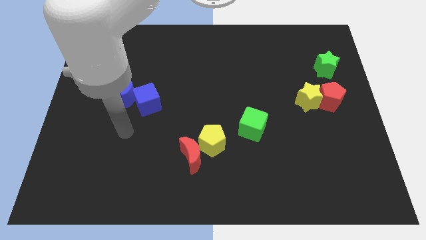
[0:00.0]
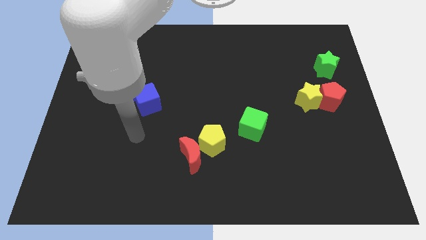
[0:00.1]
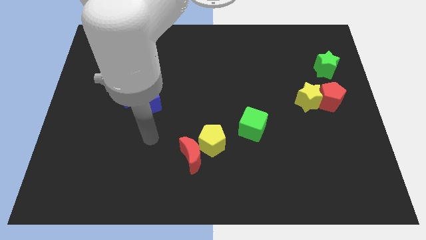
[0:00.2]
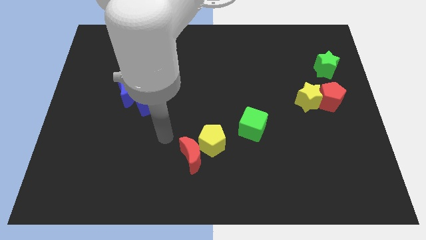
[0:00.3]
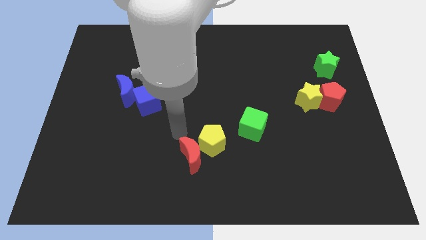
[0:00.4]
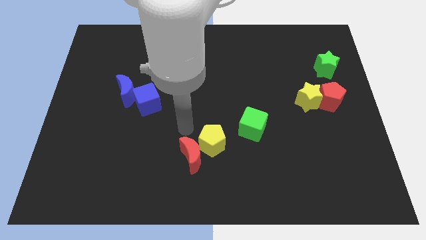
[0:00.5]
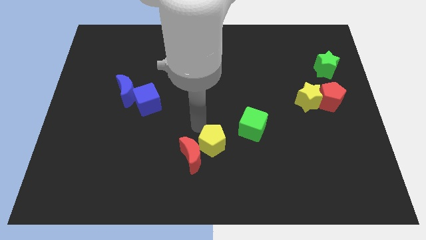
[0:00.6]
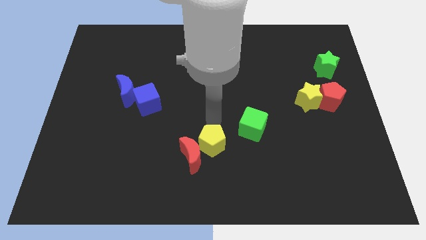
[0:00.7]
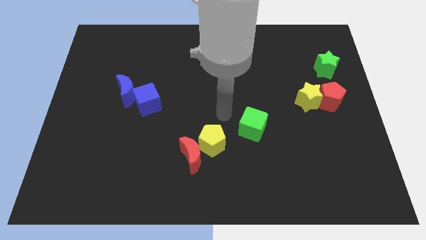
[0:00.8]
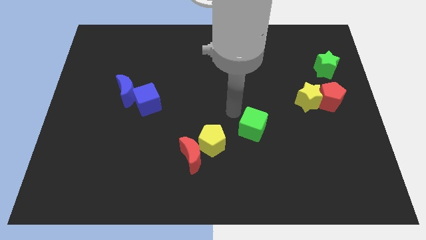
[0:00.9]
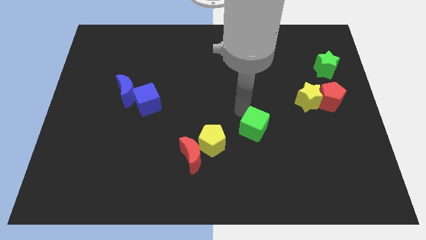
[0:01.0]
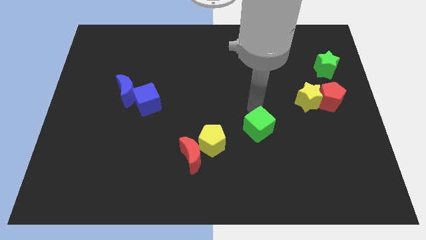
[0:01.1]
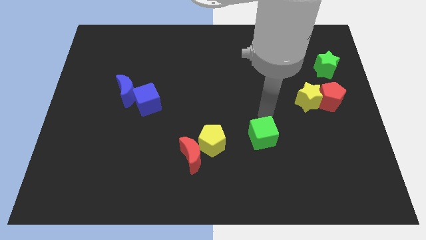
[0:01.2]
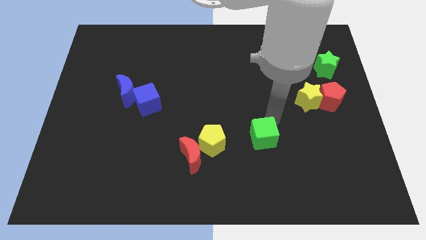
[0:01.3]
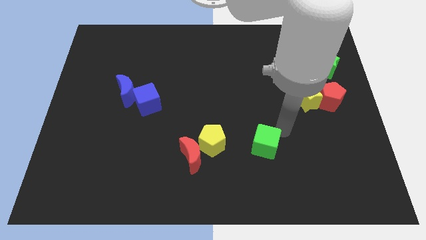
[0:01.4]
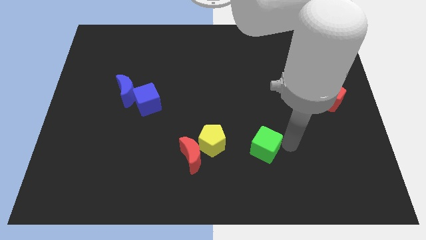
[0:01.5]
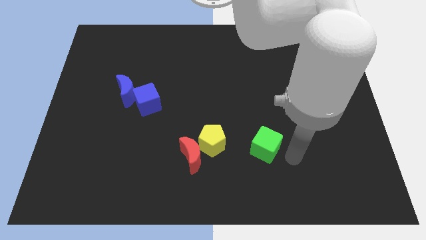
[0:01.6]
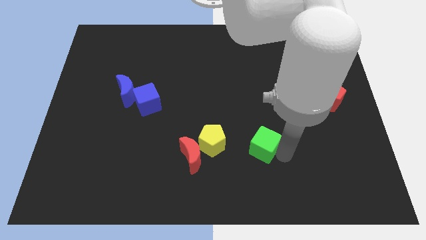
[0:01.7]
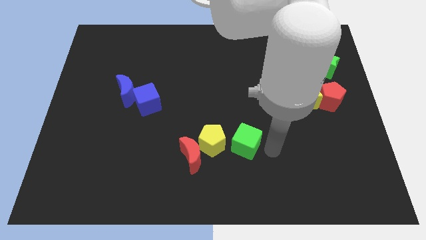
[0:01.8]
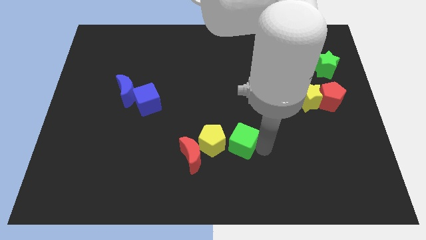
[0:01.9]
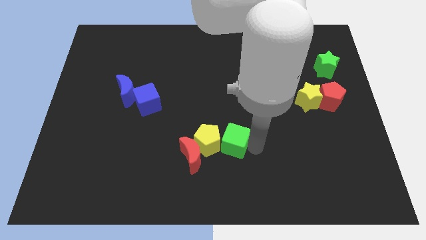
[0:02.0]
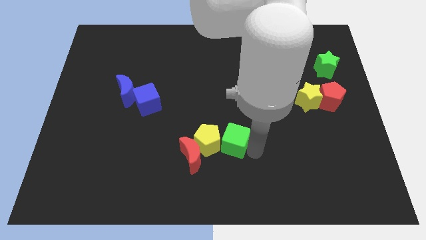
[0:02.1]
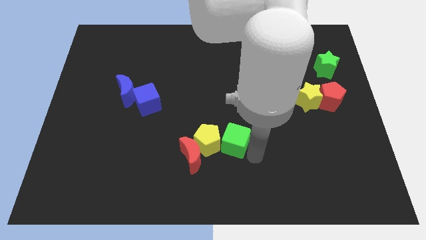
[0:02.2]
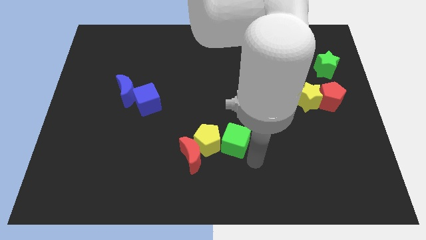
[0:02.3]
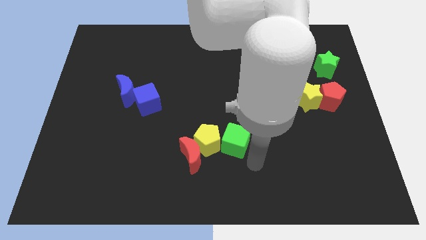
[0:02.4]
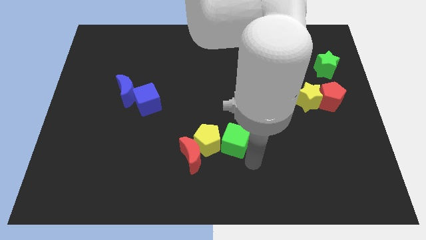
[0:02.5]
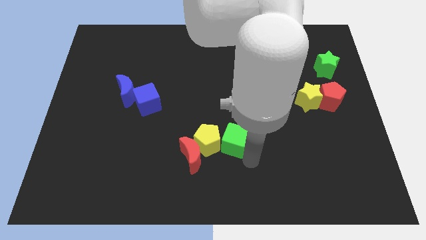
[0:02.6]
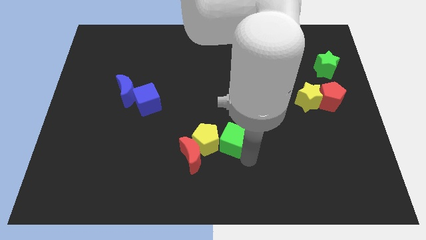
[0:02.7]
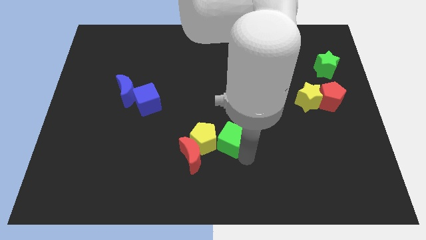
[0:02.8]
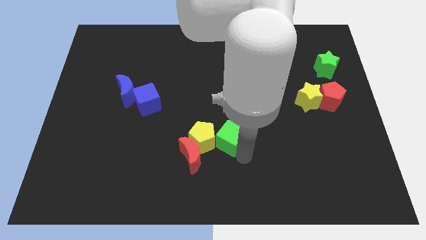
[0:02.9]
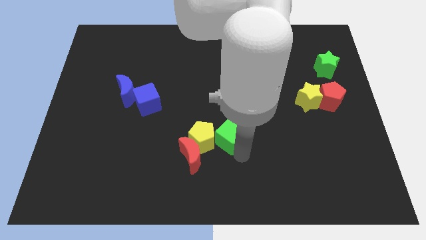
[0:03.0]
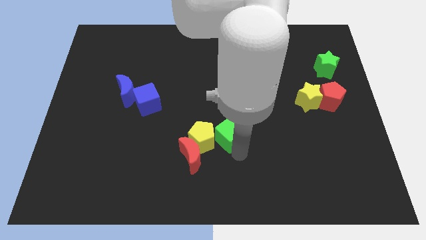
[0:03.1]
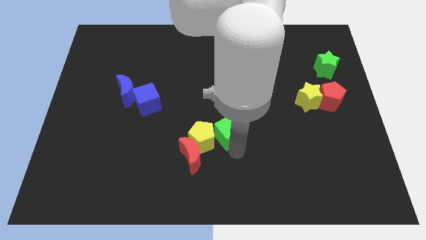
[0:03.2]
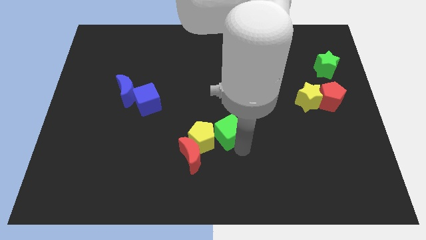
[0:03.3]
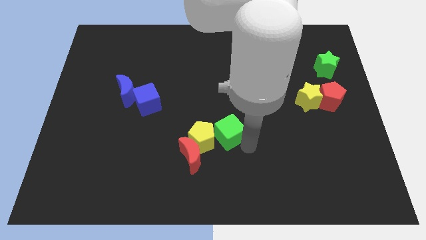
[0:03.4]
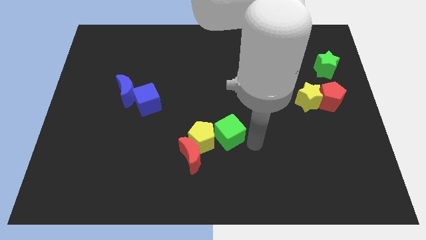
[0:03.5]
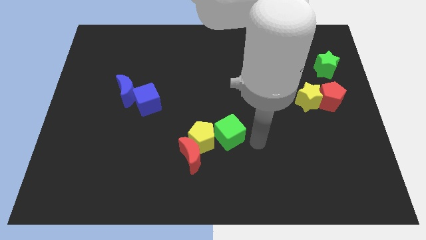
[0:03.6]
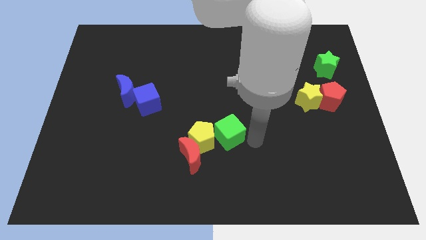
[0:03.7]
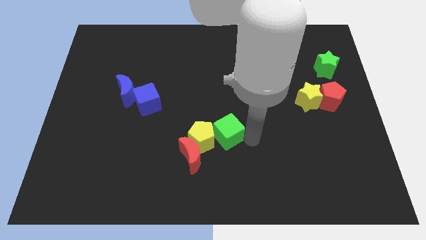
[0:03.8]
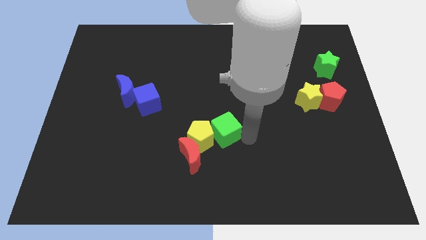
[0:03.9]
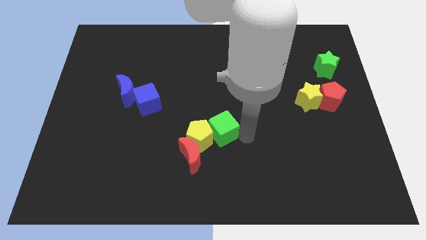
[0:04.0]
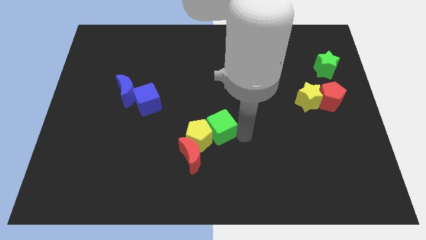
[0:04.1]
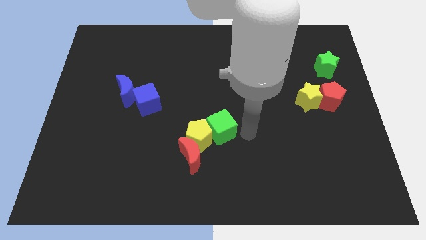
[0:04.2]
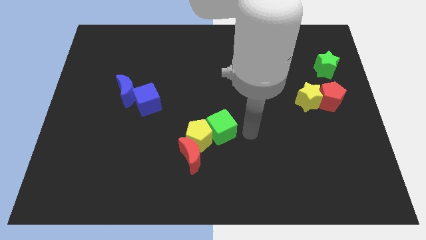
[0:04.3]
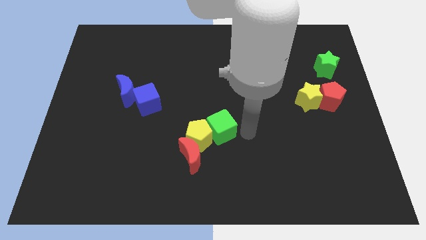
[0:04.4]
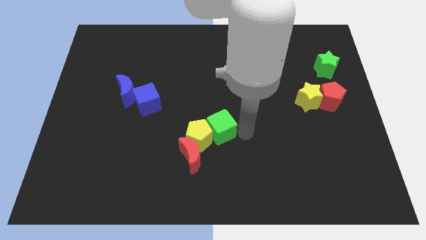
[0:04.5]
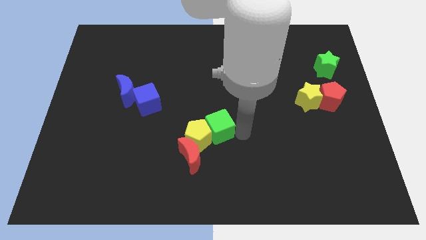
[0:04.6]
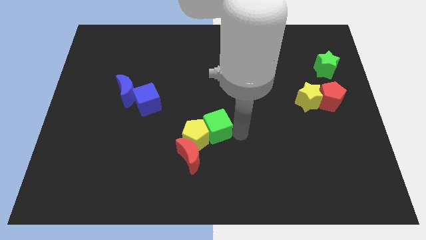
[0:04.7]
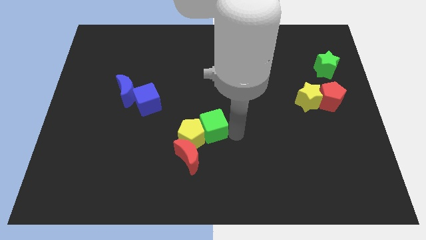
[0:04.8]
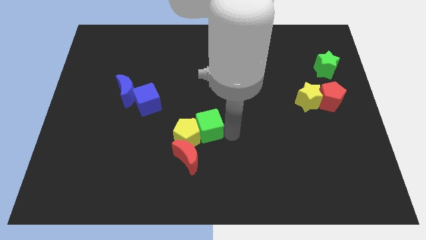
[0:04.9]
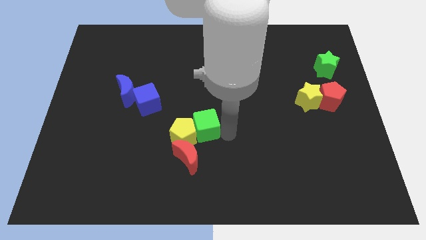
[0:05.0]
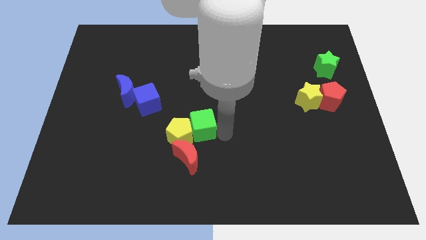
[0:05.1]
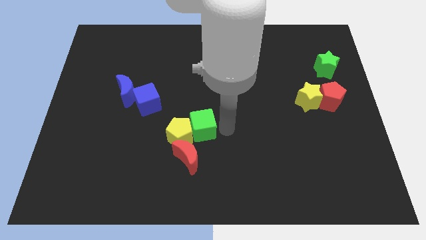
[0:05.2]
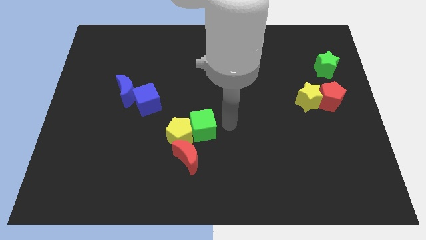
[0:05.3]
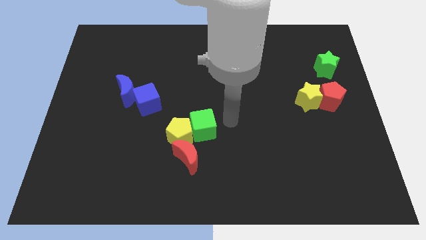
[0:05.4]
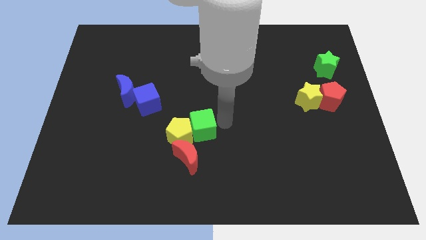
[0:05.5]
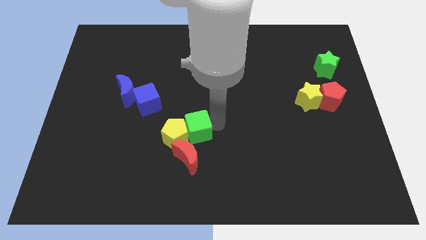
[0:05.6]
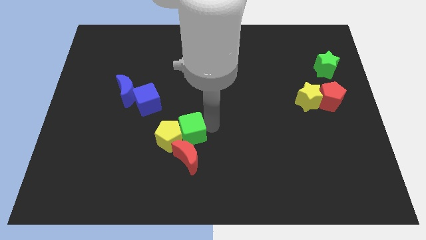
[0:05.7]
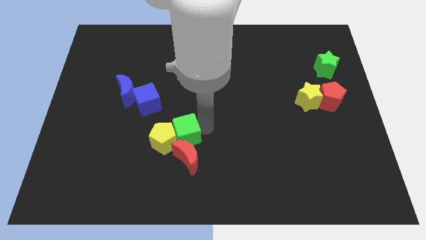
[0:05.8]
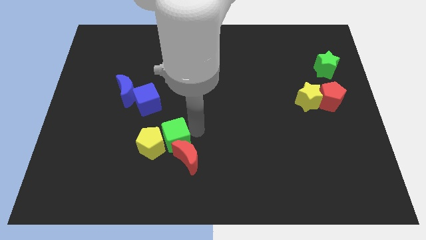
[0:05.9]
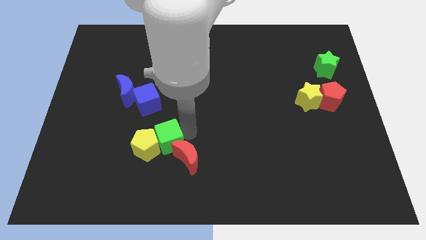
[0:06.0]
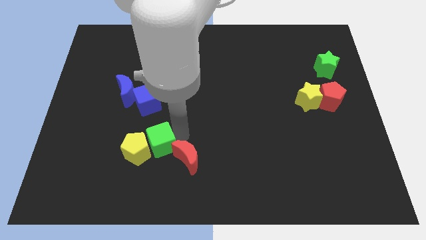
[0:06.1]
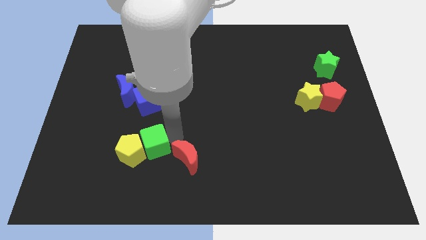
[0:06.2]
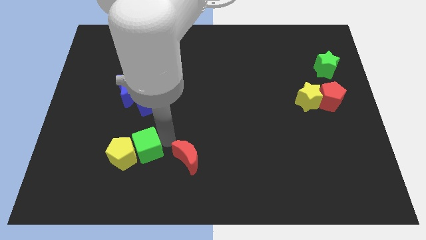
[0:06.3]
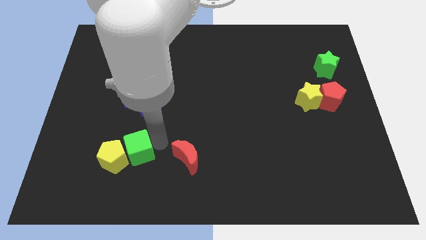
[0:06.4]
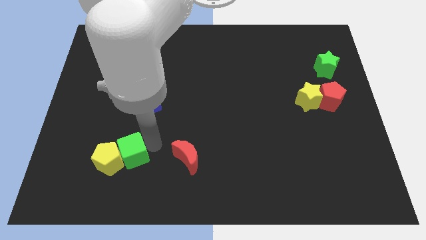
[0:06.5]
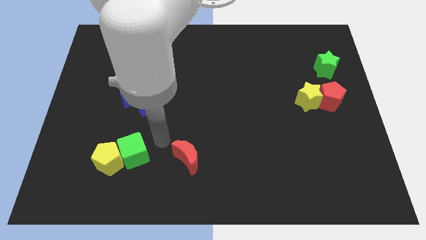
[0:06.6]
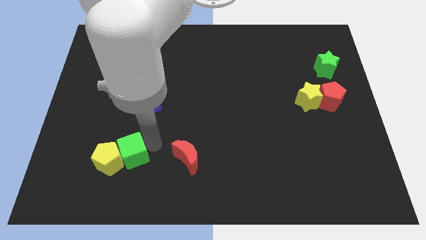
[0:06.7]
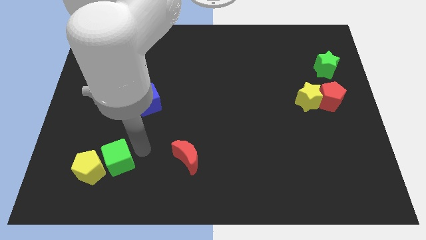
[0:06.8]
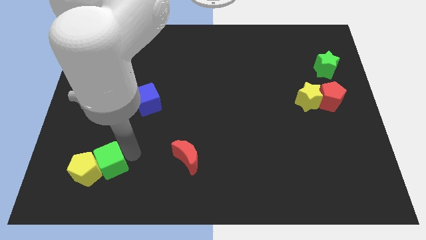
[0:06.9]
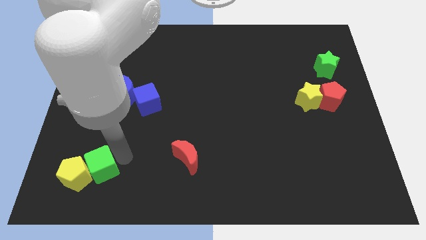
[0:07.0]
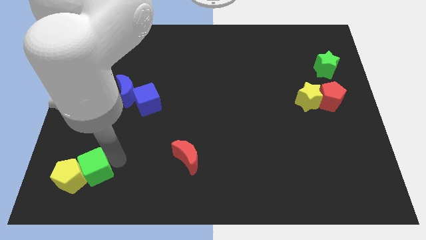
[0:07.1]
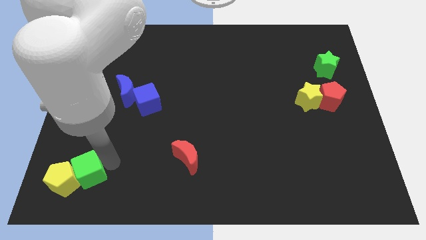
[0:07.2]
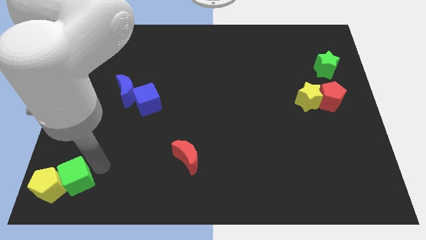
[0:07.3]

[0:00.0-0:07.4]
put the green cube to the bottom left of the board
